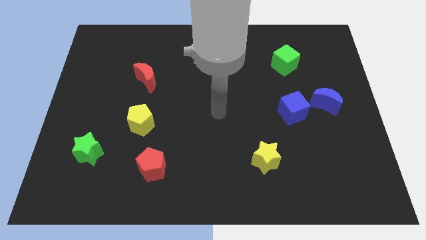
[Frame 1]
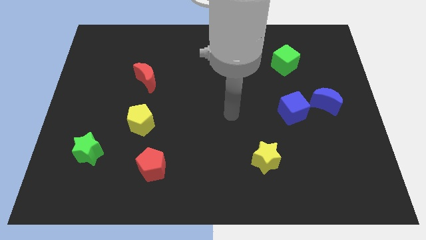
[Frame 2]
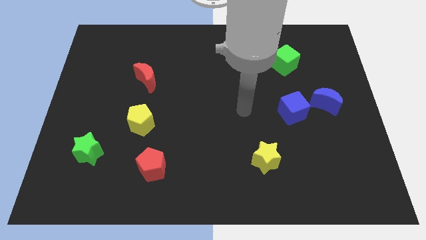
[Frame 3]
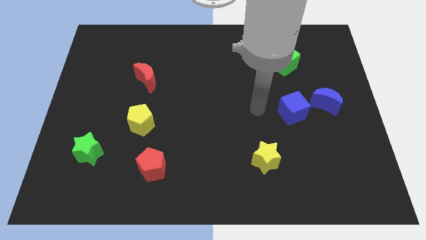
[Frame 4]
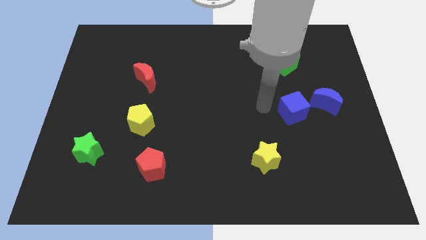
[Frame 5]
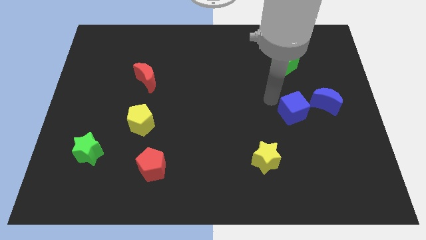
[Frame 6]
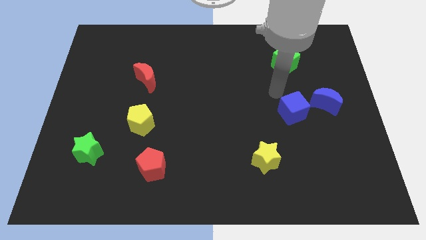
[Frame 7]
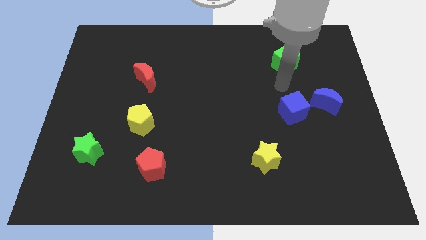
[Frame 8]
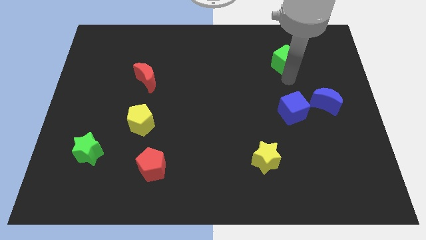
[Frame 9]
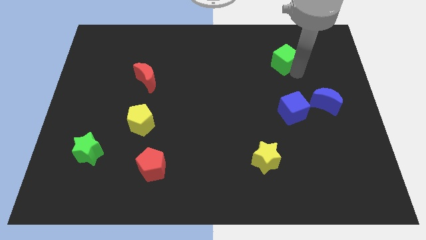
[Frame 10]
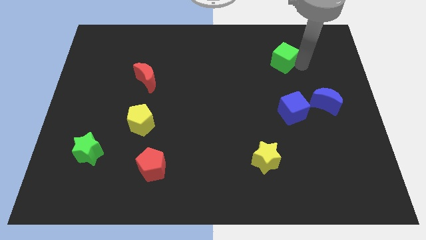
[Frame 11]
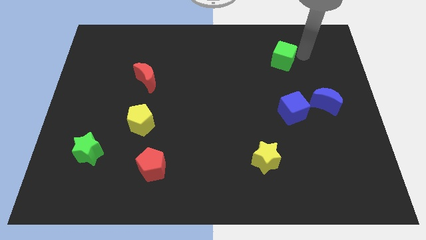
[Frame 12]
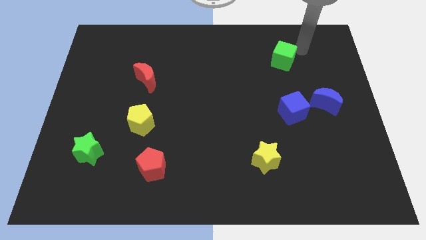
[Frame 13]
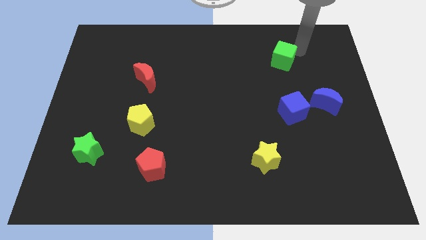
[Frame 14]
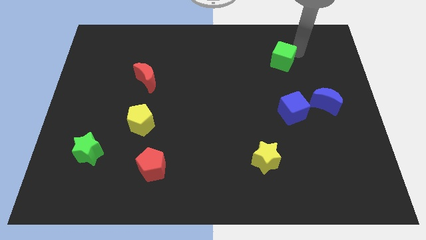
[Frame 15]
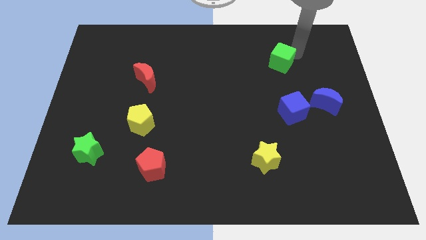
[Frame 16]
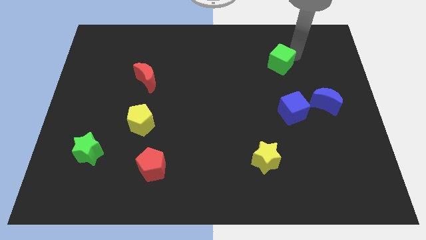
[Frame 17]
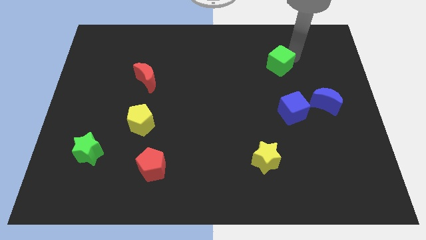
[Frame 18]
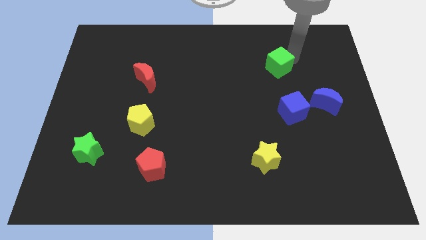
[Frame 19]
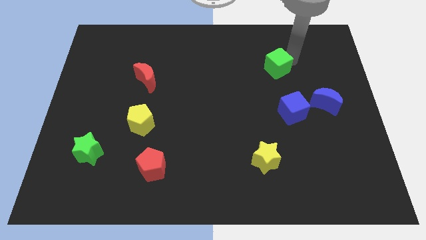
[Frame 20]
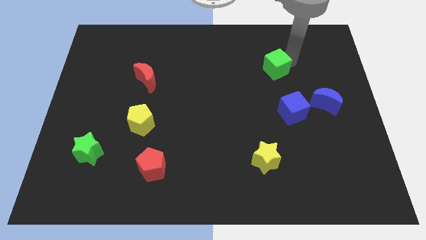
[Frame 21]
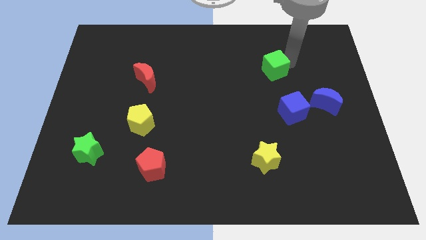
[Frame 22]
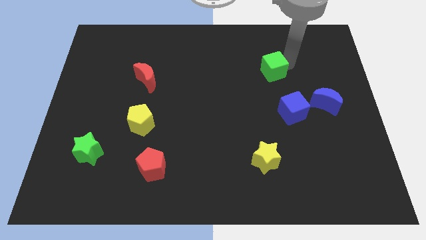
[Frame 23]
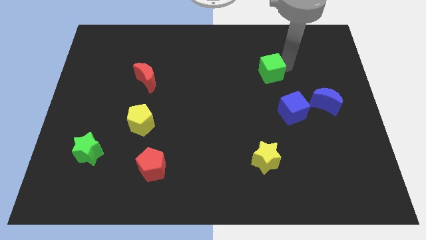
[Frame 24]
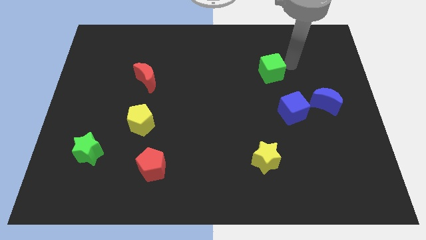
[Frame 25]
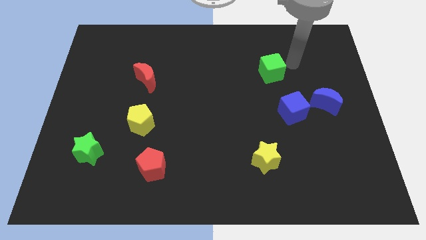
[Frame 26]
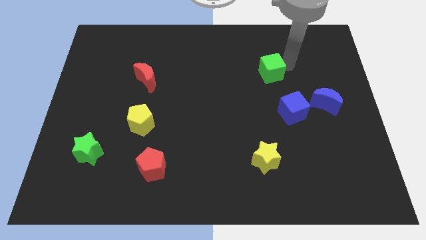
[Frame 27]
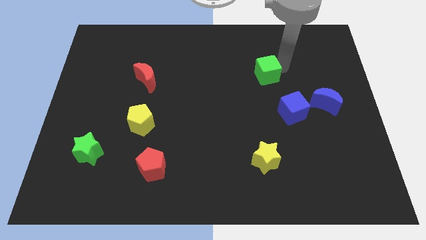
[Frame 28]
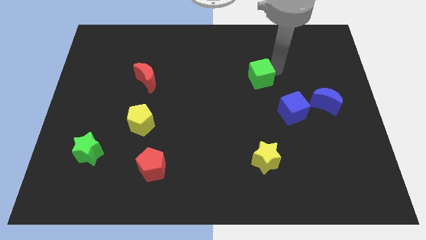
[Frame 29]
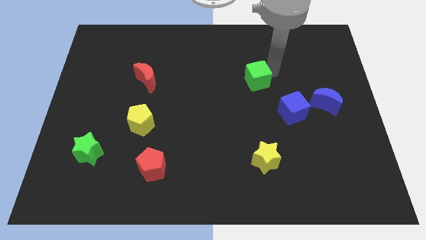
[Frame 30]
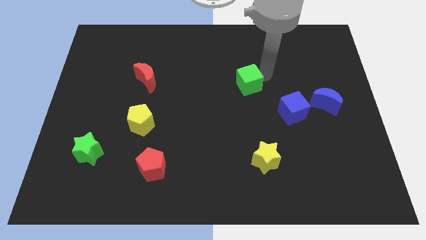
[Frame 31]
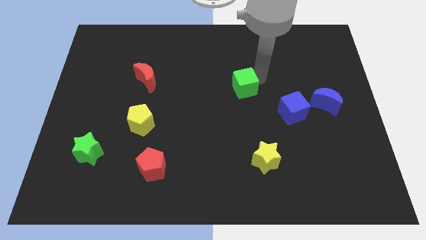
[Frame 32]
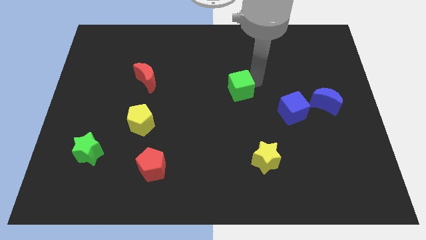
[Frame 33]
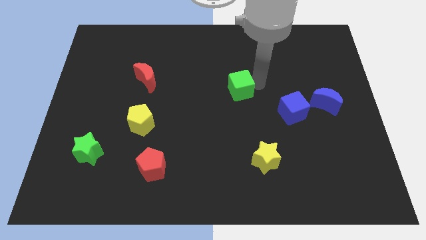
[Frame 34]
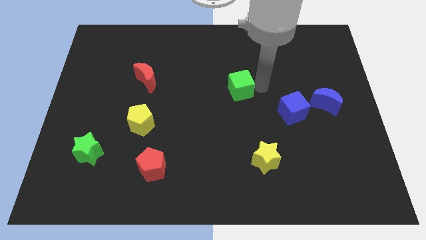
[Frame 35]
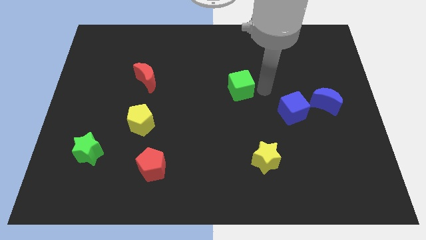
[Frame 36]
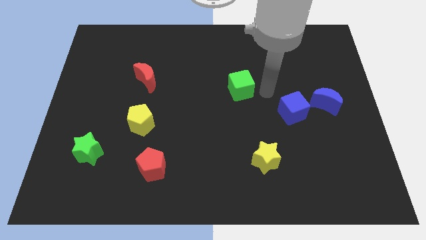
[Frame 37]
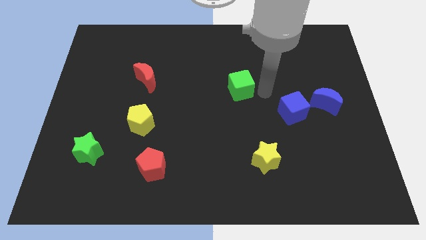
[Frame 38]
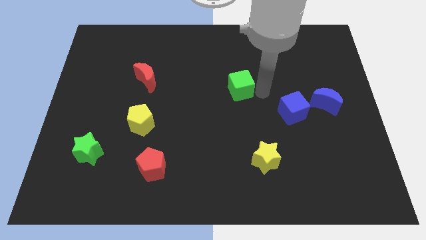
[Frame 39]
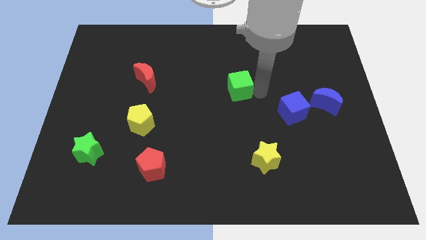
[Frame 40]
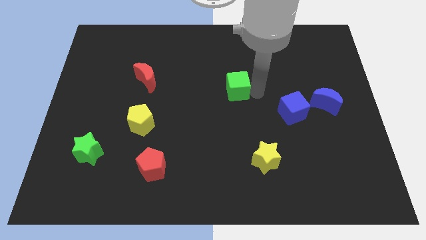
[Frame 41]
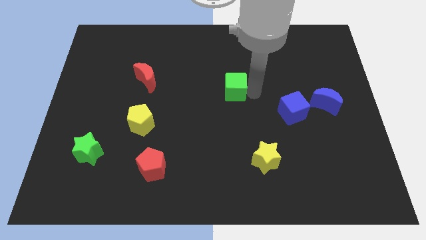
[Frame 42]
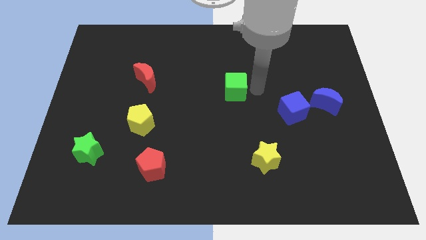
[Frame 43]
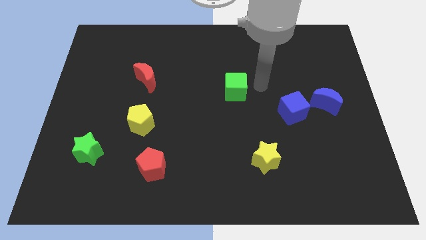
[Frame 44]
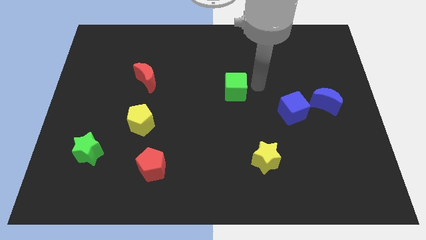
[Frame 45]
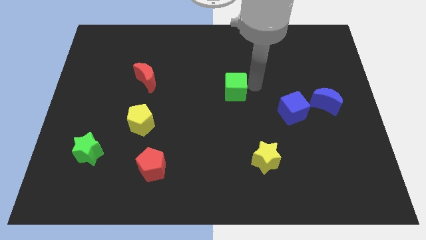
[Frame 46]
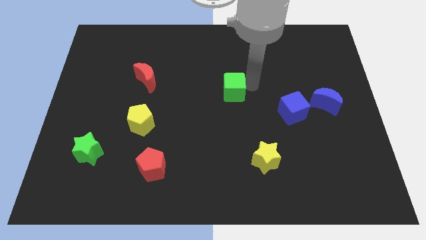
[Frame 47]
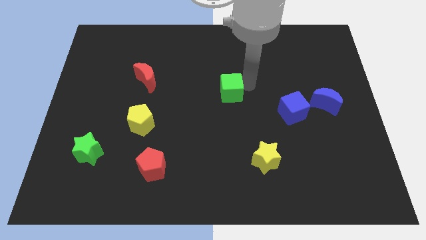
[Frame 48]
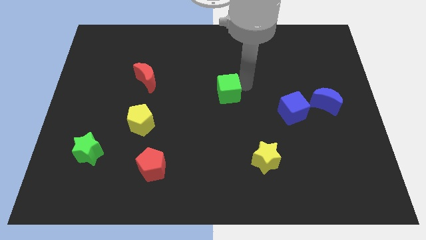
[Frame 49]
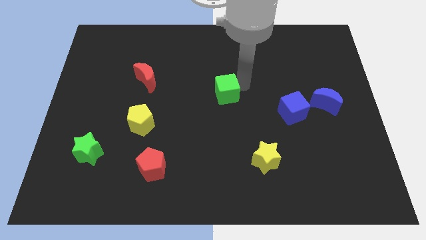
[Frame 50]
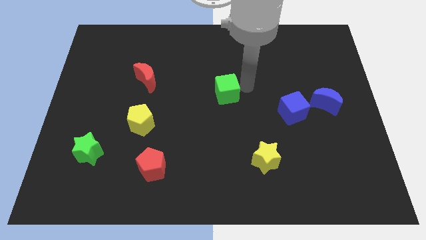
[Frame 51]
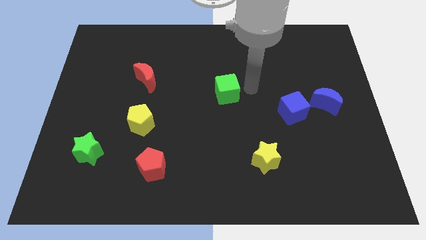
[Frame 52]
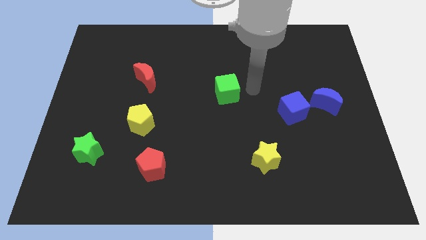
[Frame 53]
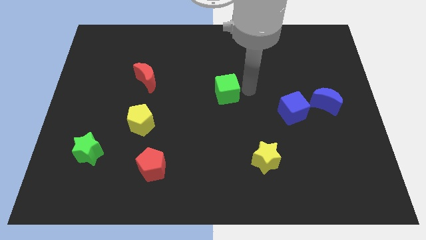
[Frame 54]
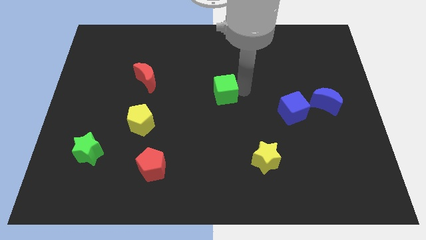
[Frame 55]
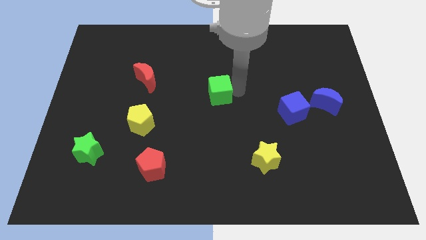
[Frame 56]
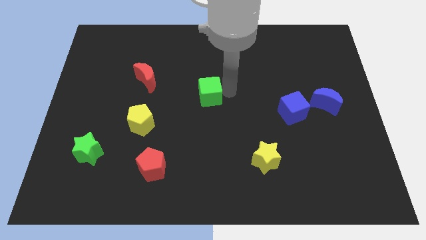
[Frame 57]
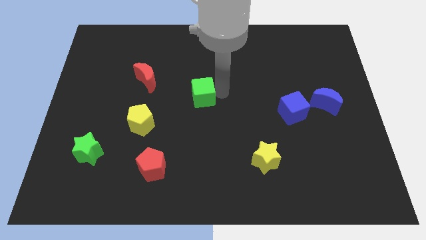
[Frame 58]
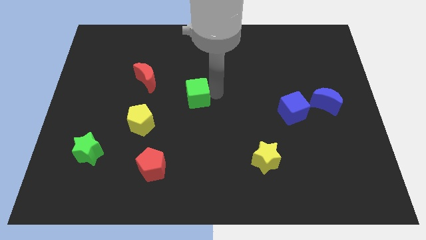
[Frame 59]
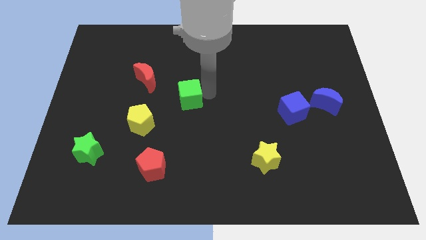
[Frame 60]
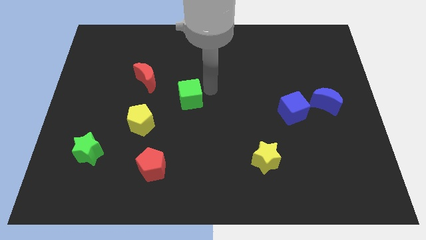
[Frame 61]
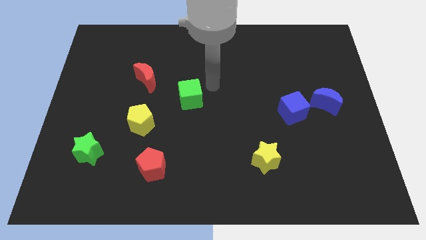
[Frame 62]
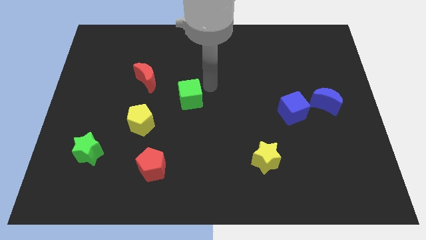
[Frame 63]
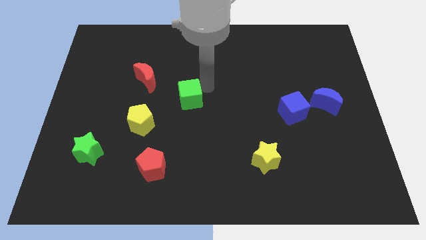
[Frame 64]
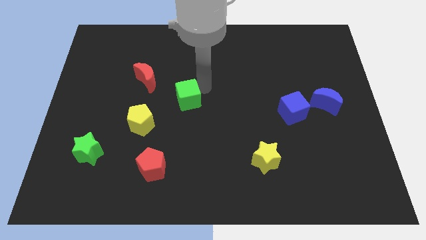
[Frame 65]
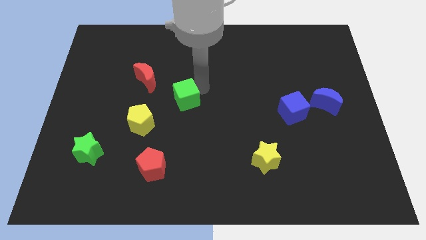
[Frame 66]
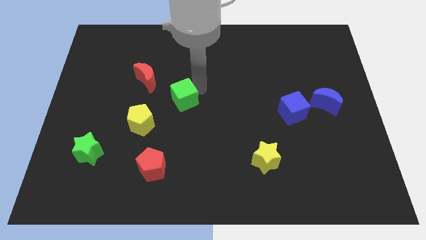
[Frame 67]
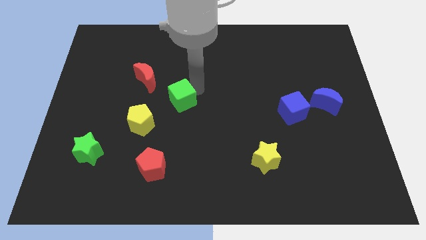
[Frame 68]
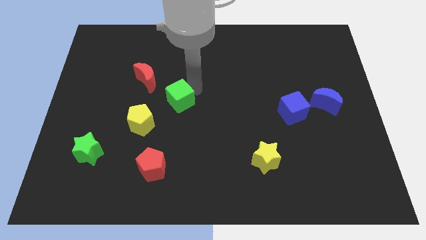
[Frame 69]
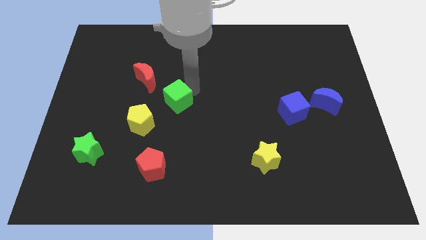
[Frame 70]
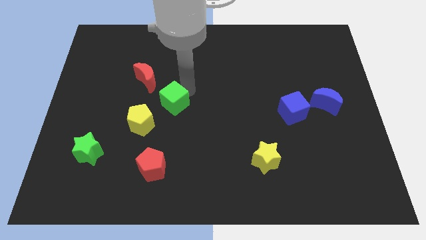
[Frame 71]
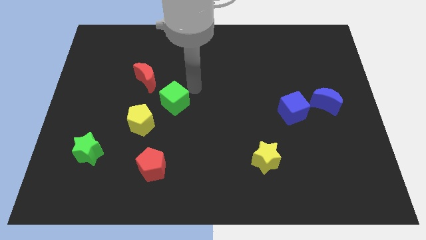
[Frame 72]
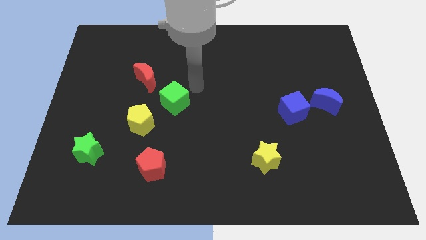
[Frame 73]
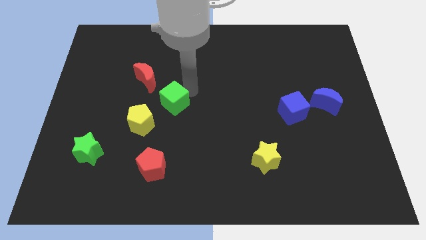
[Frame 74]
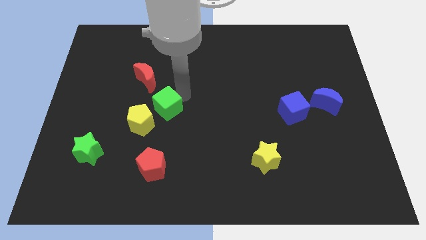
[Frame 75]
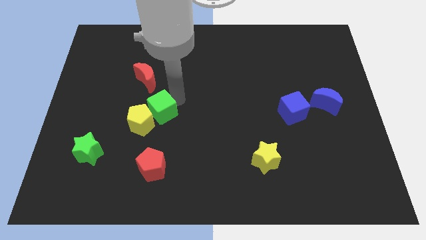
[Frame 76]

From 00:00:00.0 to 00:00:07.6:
slide the green cube close to the yellow pentagon
